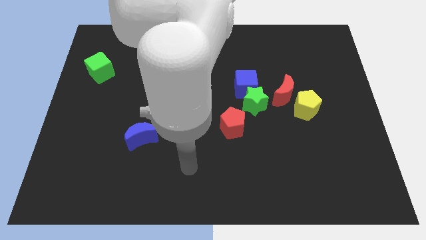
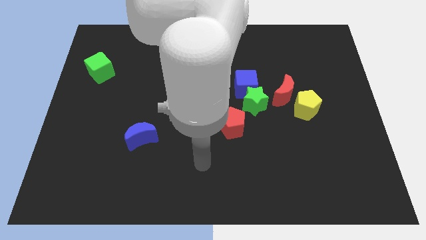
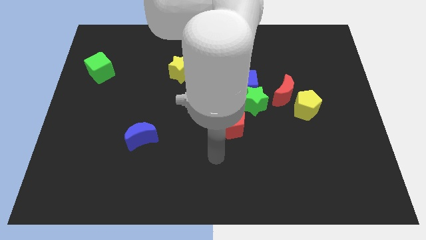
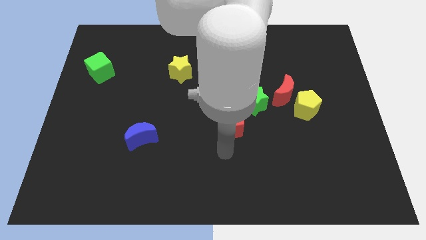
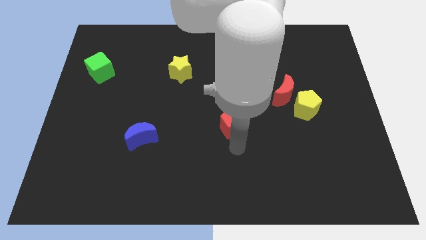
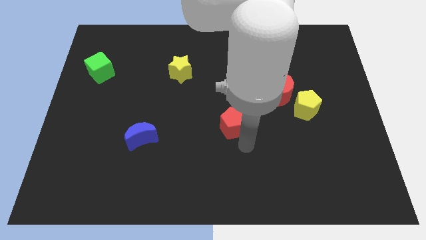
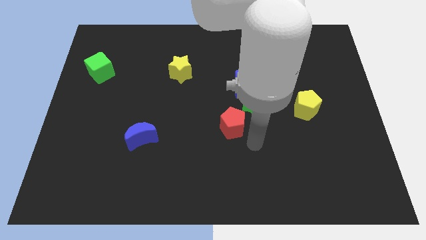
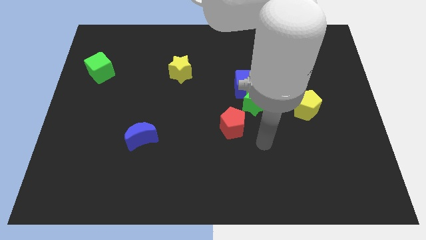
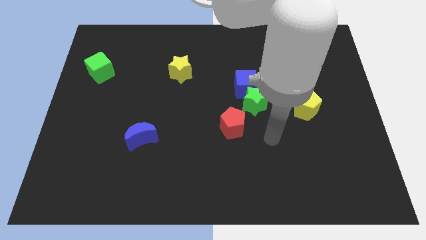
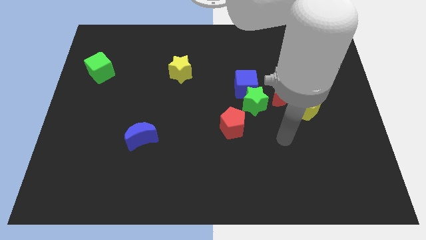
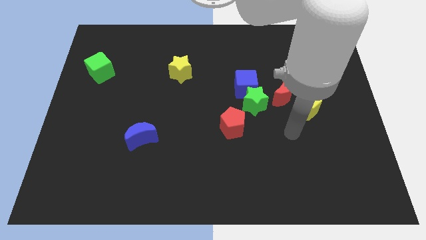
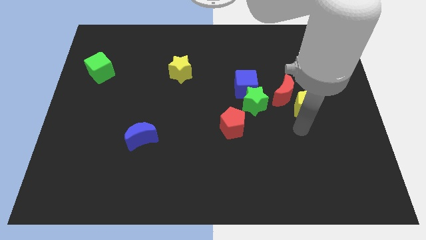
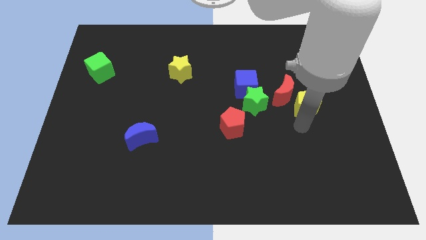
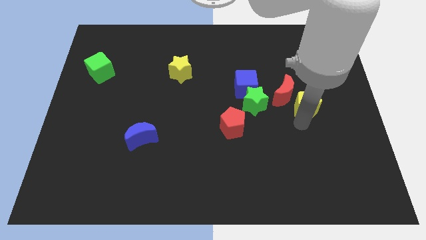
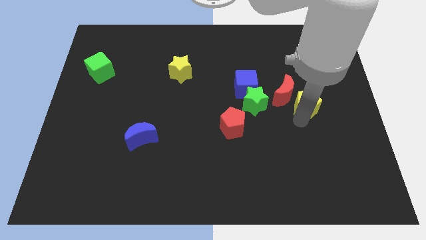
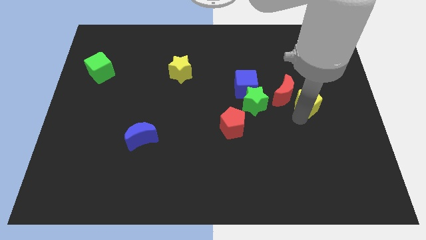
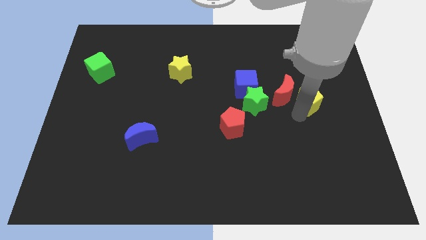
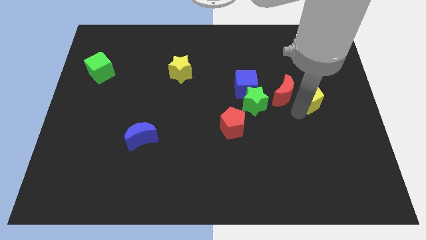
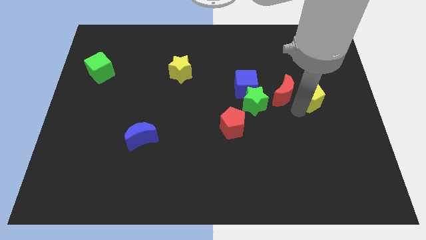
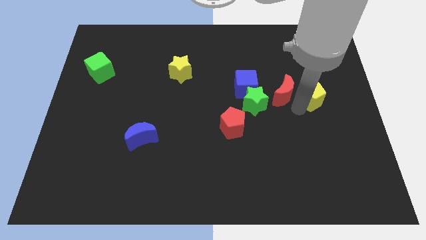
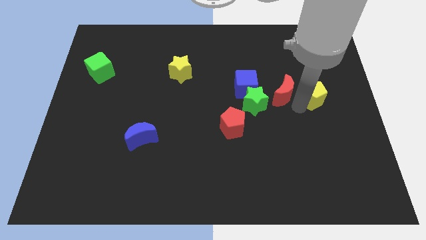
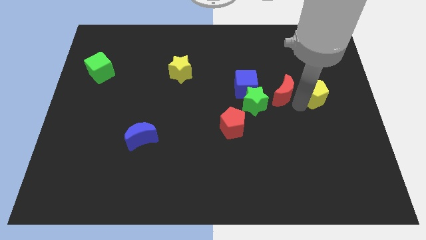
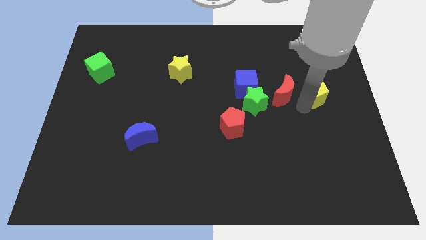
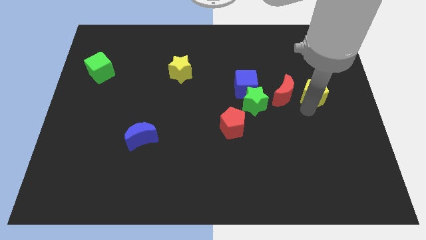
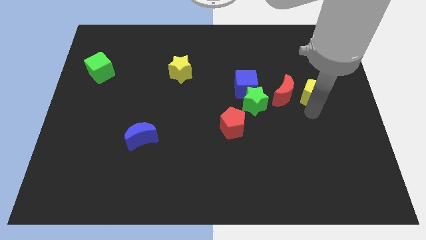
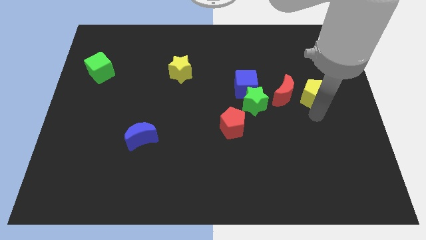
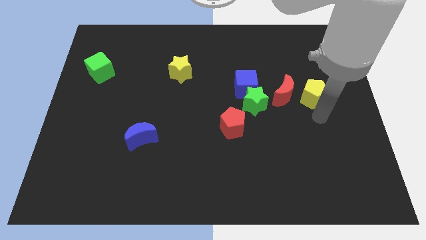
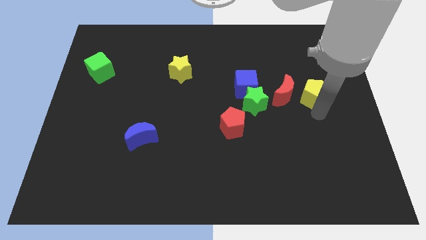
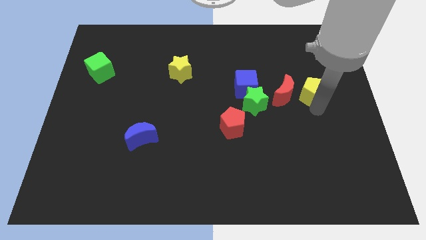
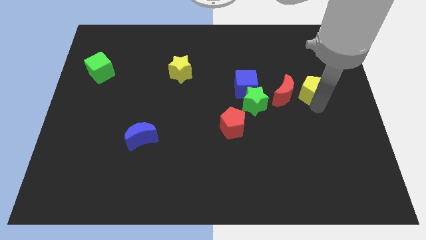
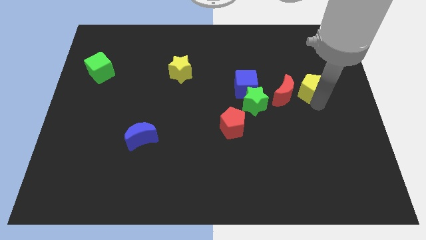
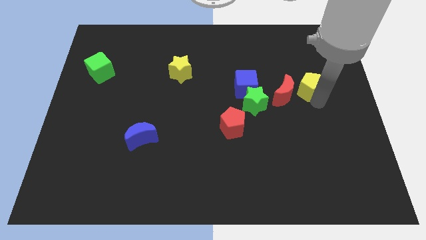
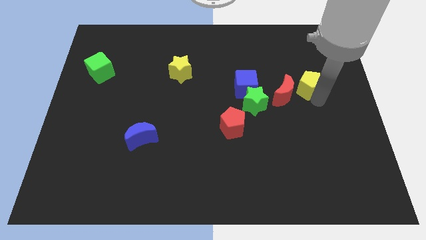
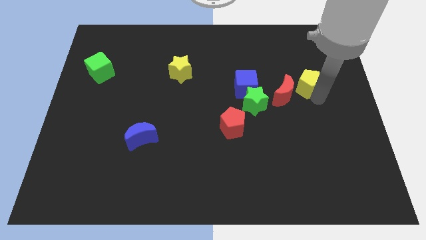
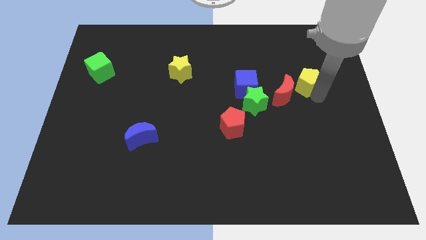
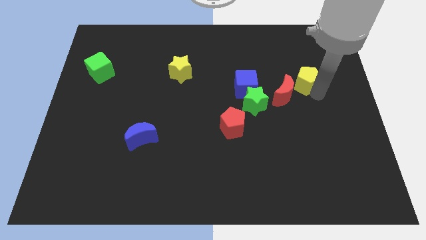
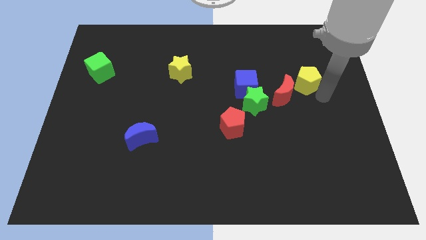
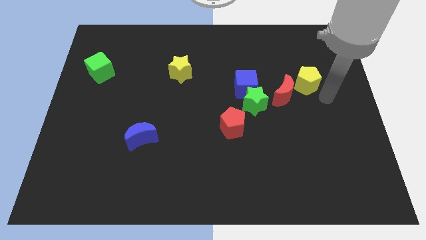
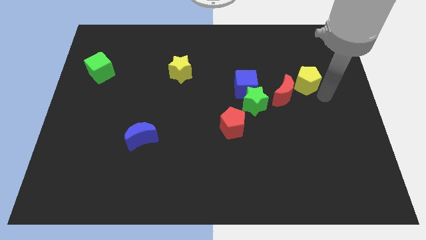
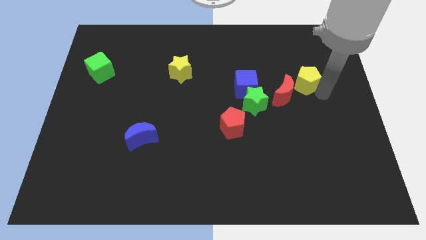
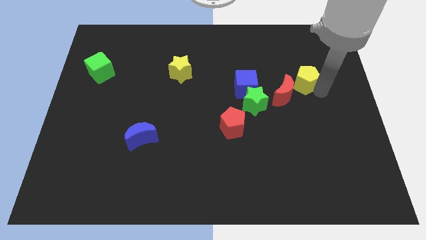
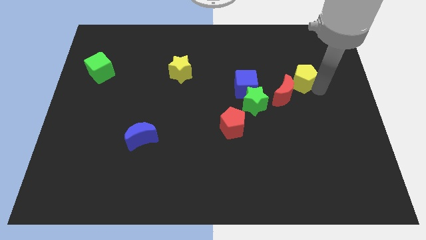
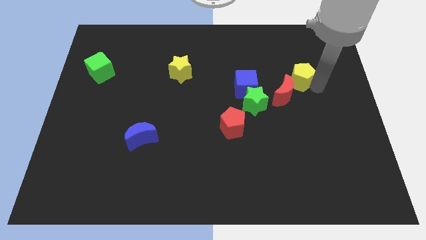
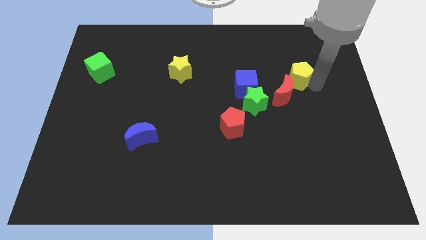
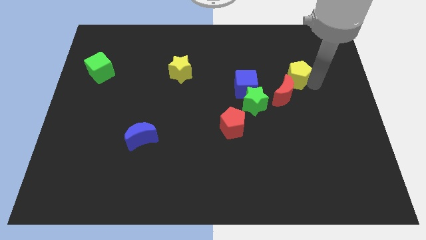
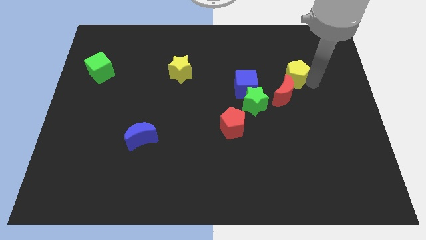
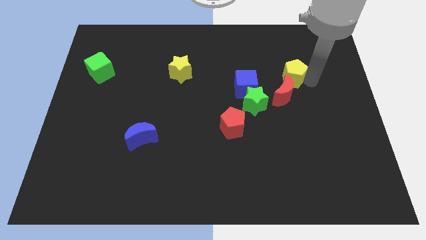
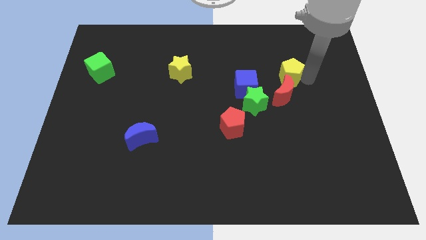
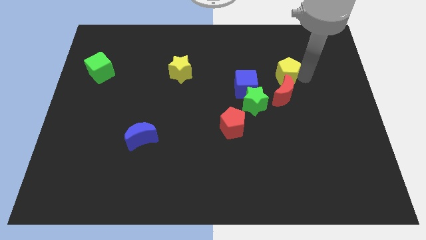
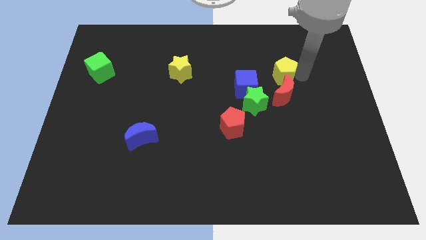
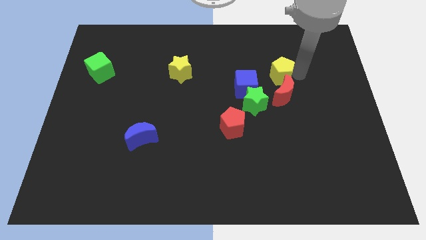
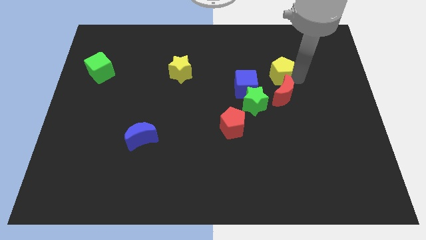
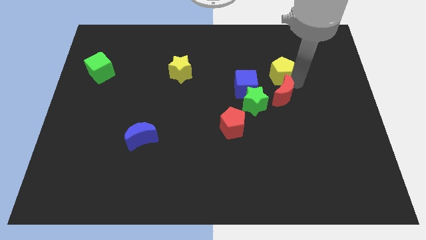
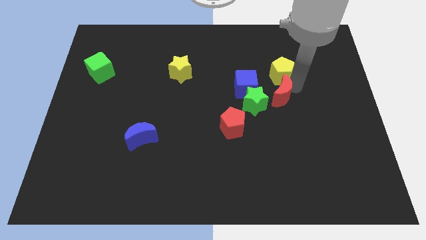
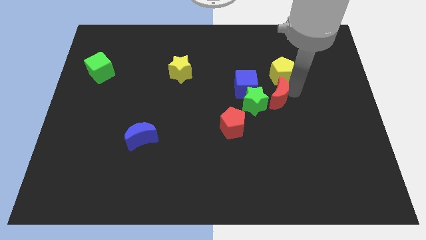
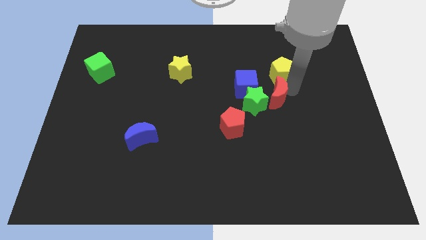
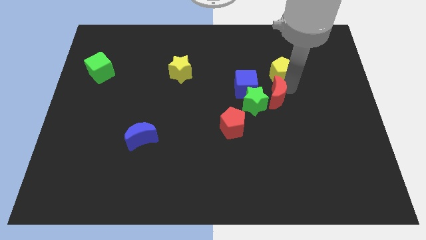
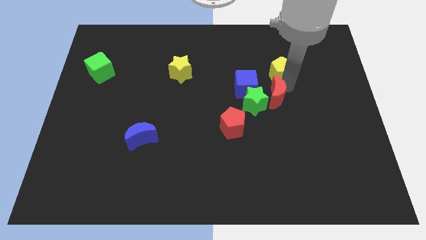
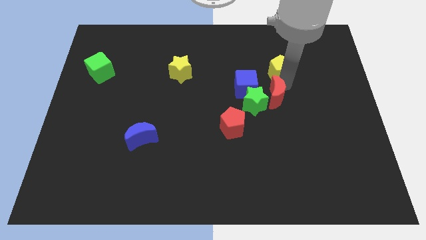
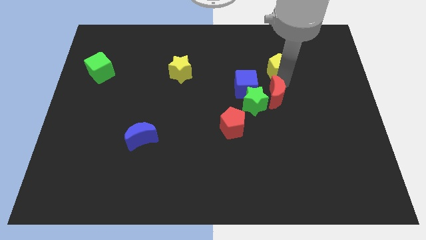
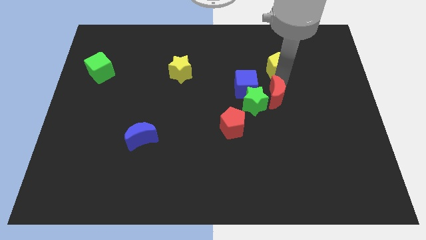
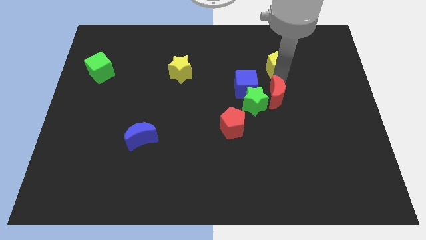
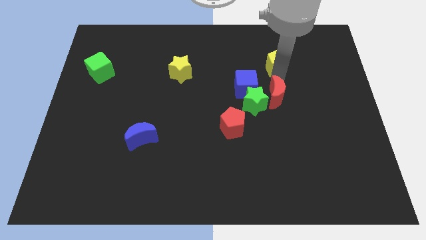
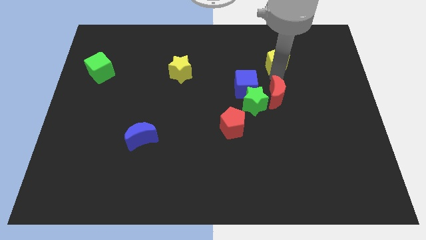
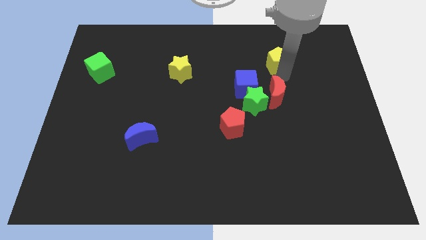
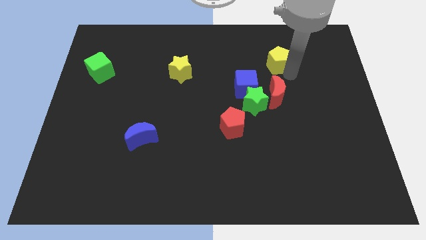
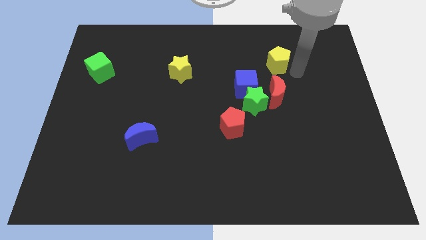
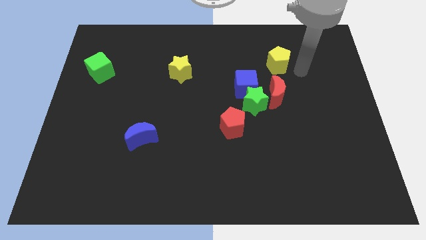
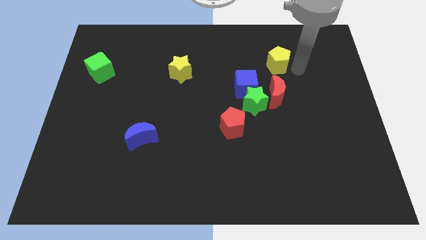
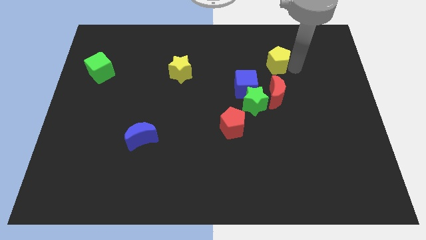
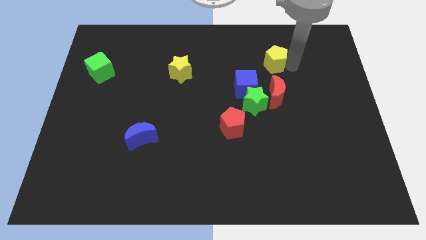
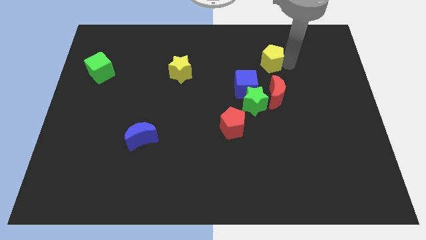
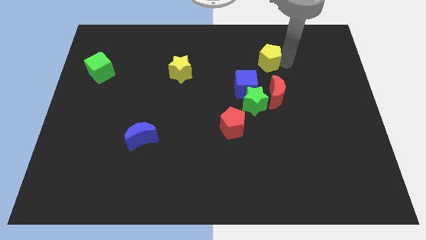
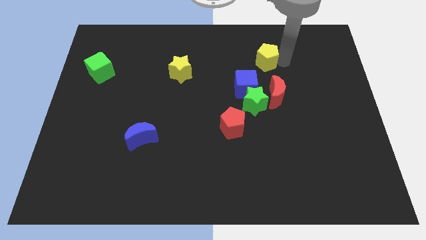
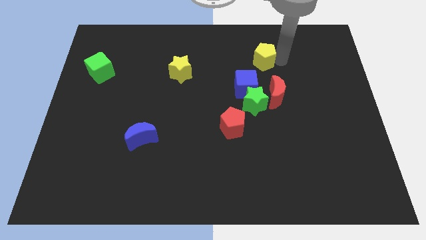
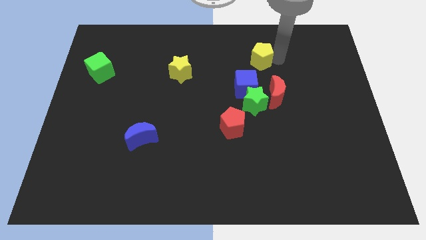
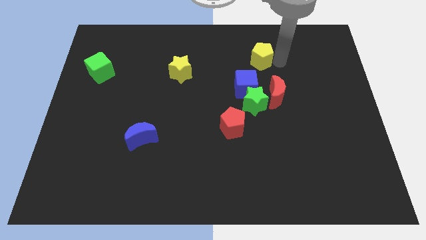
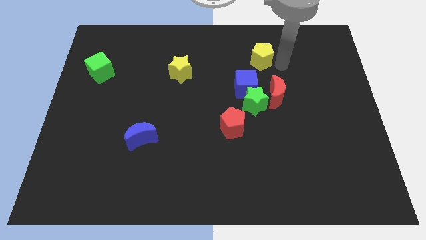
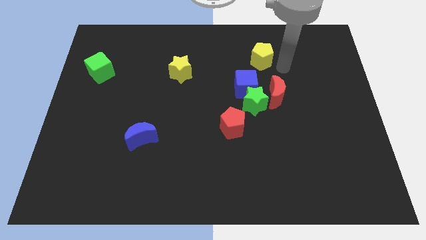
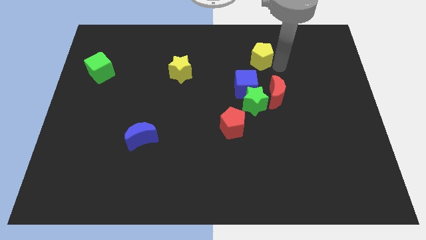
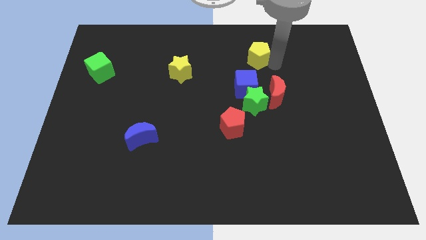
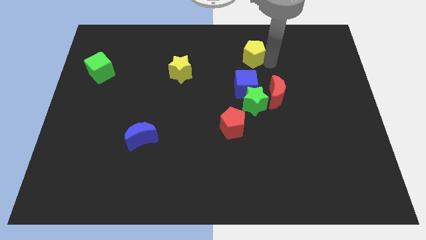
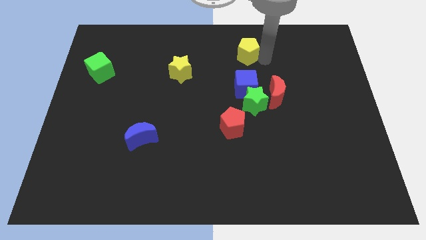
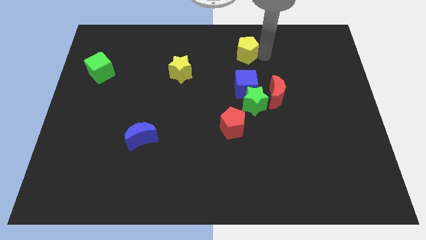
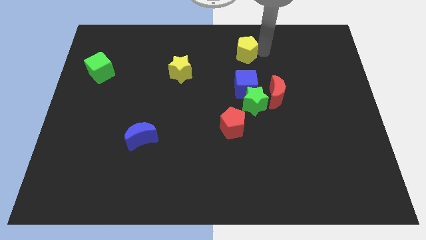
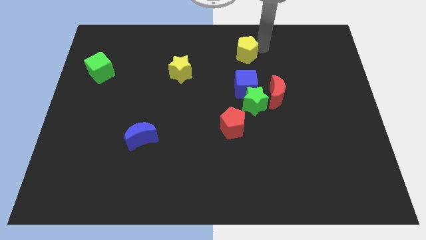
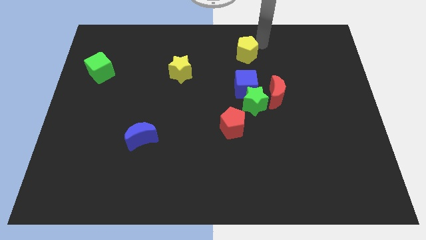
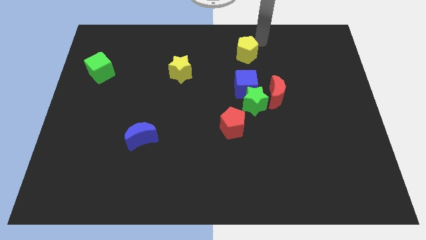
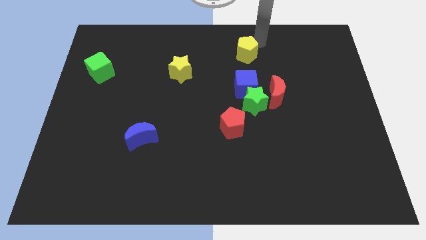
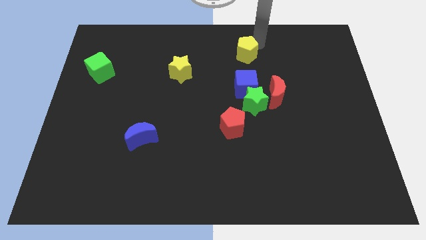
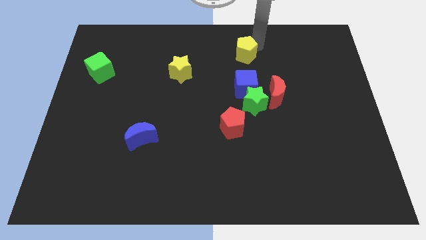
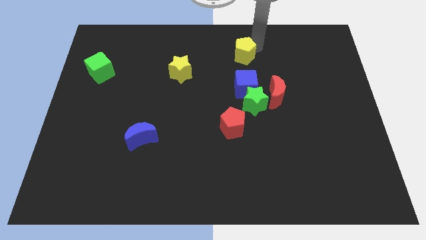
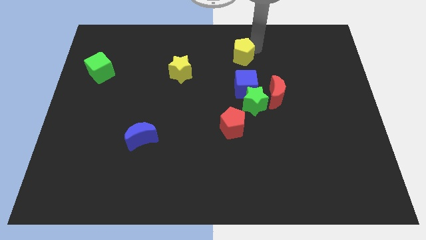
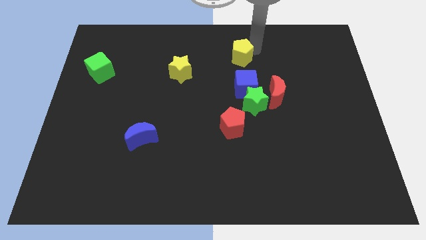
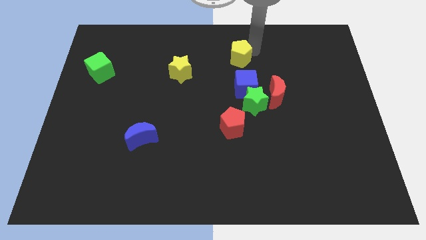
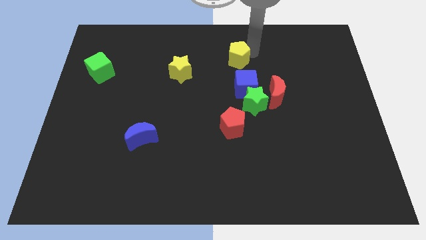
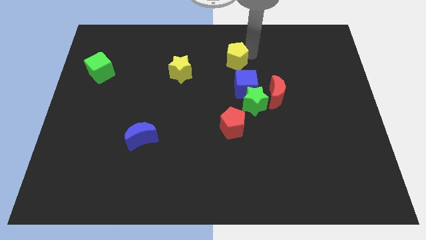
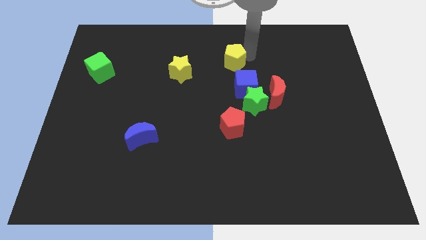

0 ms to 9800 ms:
move the yellow pentagon to the right side of the yellow star
